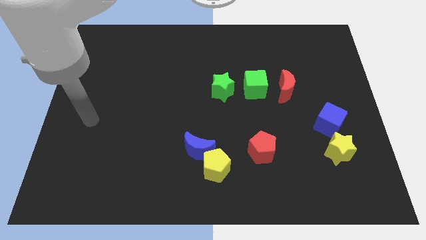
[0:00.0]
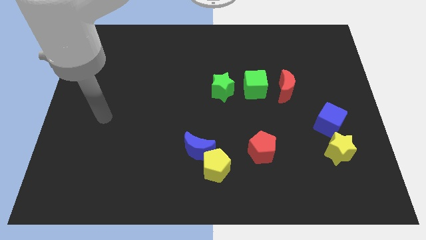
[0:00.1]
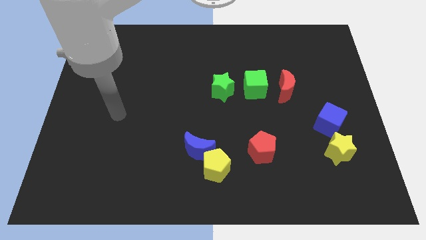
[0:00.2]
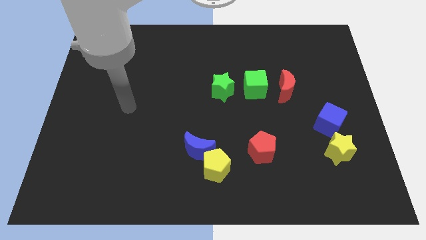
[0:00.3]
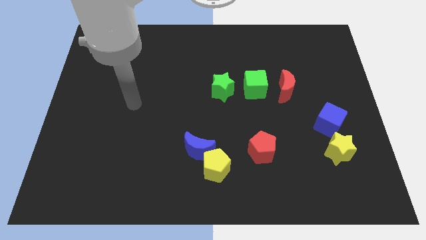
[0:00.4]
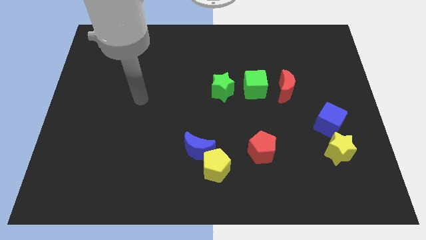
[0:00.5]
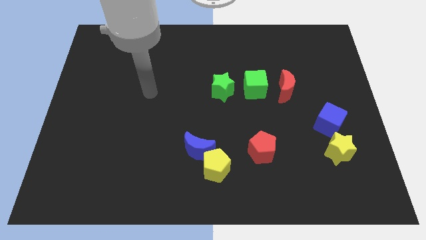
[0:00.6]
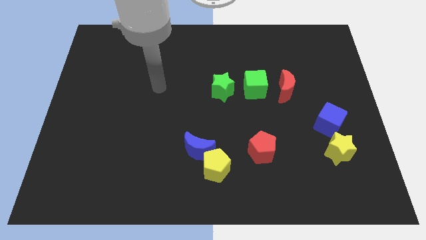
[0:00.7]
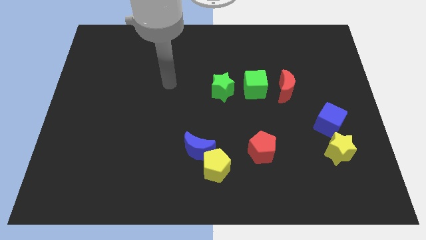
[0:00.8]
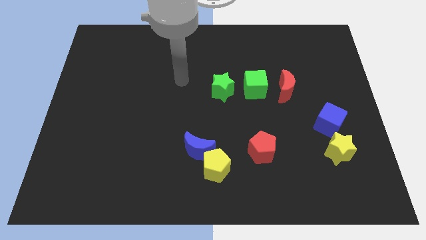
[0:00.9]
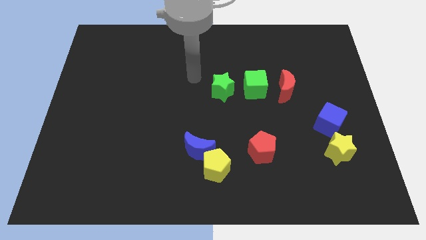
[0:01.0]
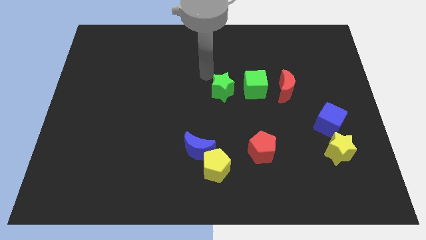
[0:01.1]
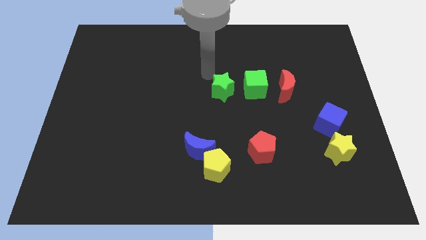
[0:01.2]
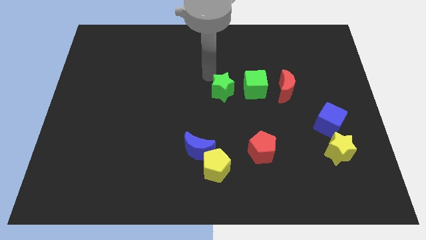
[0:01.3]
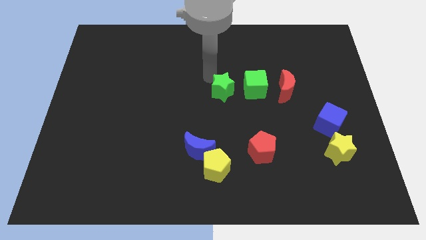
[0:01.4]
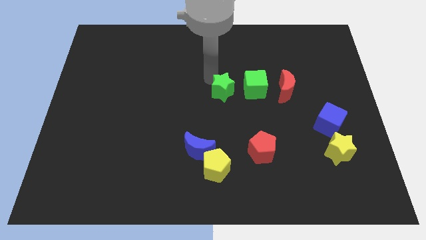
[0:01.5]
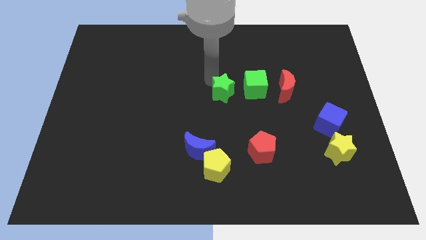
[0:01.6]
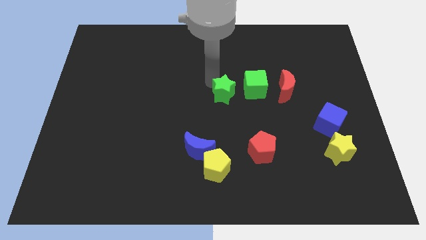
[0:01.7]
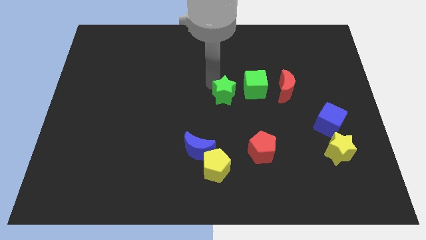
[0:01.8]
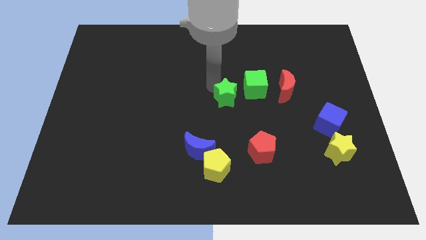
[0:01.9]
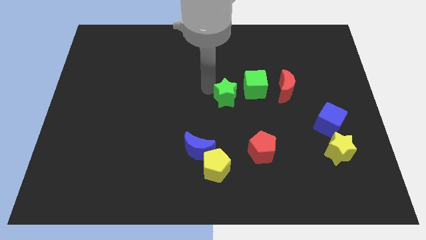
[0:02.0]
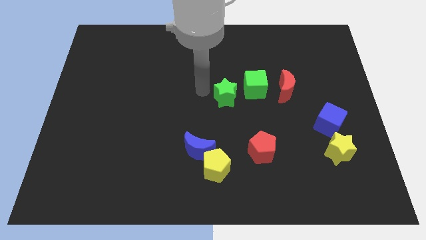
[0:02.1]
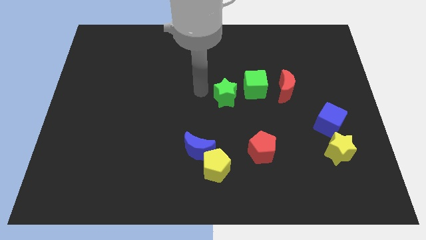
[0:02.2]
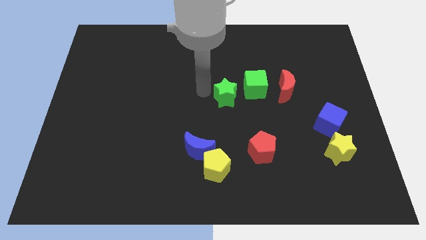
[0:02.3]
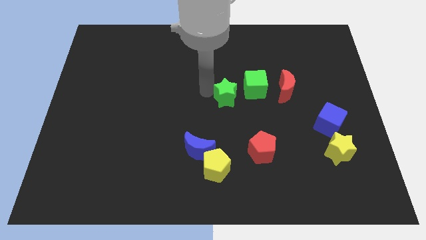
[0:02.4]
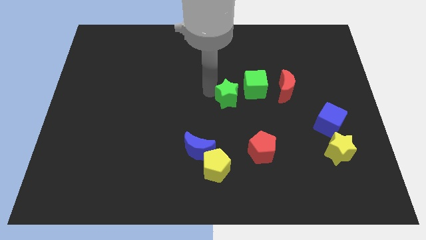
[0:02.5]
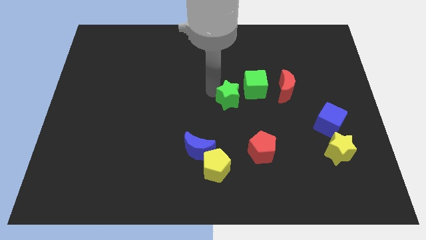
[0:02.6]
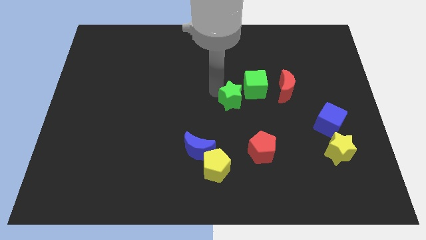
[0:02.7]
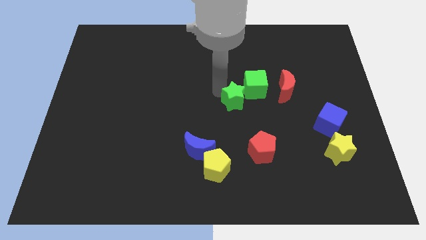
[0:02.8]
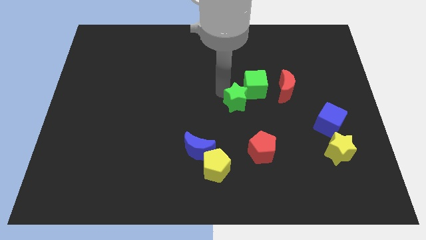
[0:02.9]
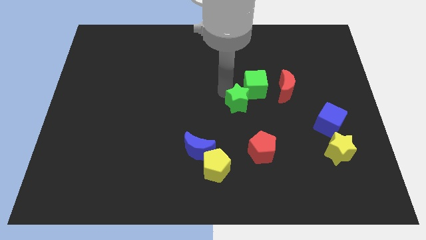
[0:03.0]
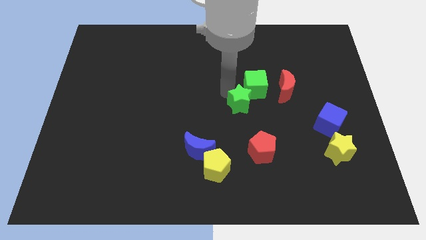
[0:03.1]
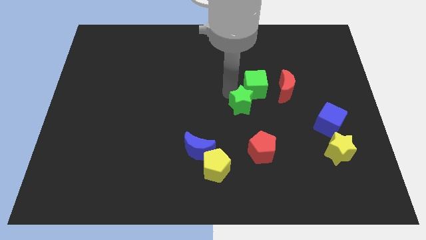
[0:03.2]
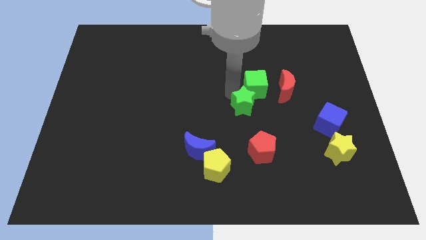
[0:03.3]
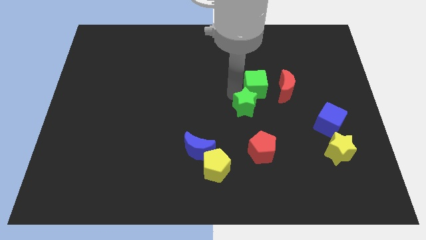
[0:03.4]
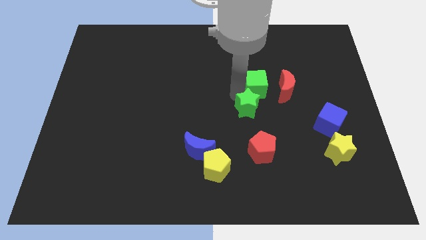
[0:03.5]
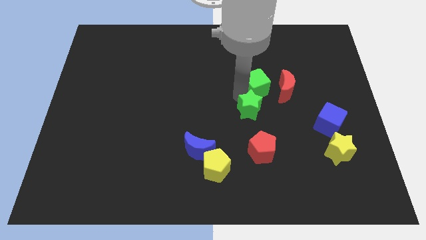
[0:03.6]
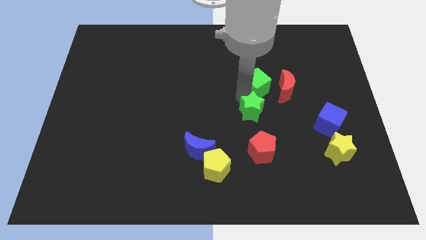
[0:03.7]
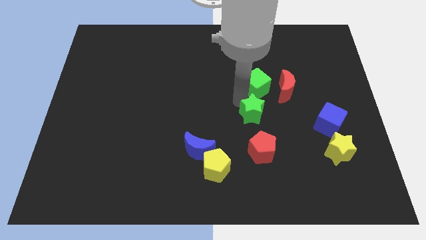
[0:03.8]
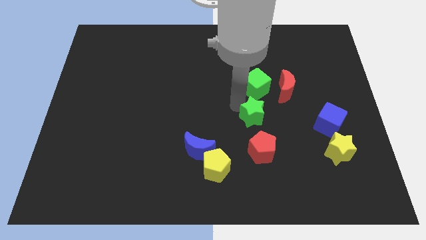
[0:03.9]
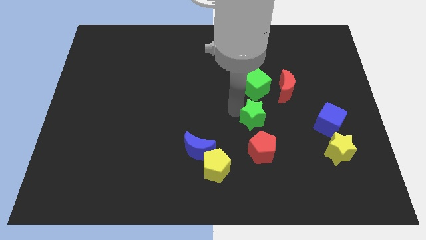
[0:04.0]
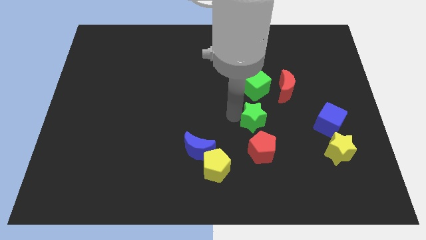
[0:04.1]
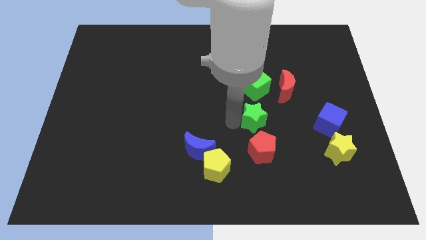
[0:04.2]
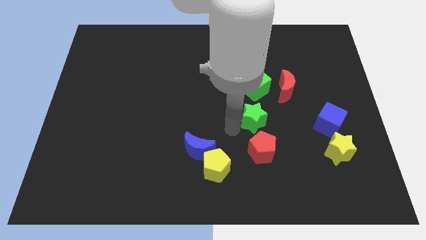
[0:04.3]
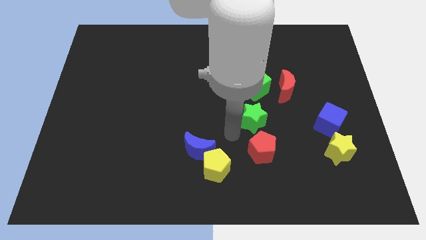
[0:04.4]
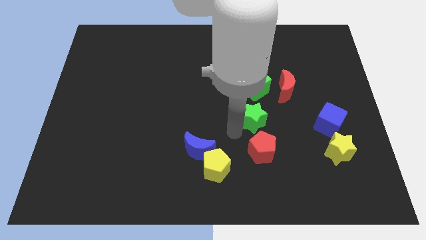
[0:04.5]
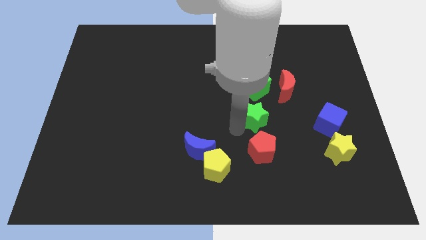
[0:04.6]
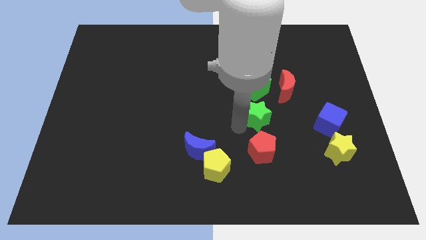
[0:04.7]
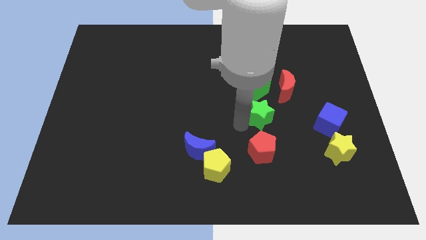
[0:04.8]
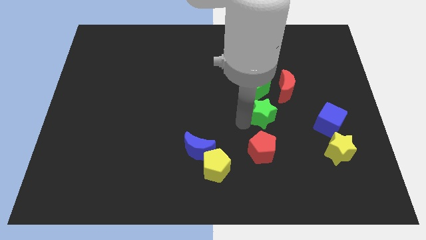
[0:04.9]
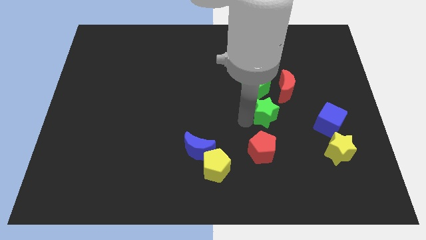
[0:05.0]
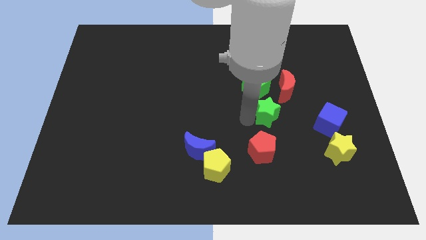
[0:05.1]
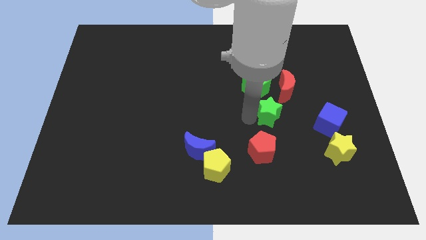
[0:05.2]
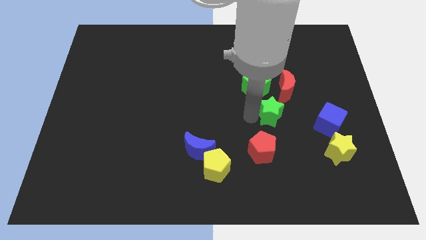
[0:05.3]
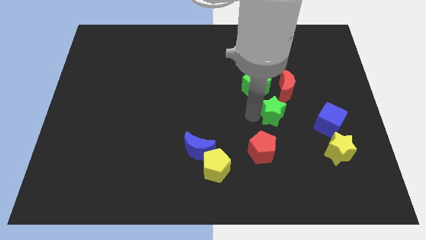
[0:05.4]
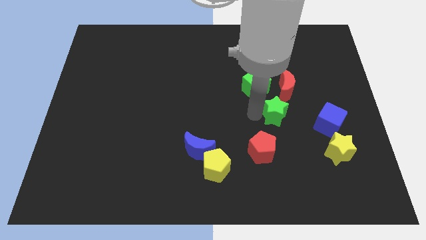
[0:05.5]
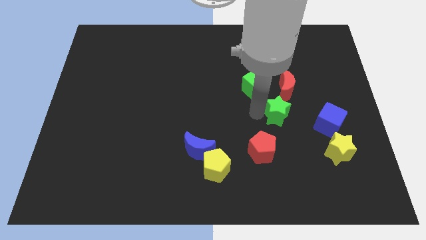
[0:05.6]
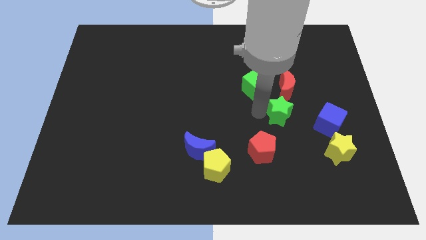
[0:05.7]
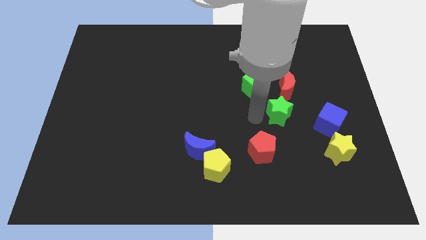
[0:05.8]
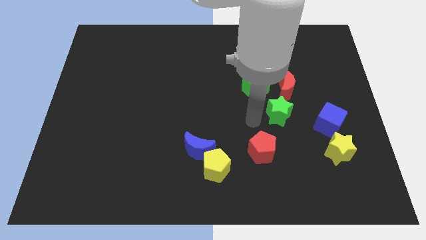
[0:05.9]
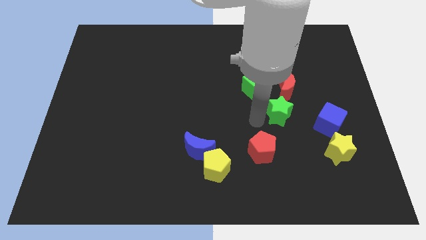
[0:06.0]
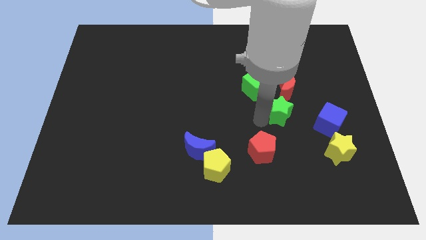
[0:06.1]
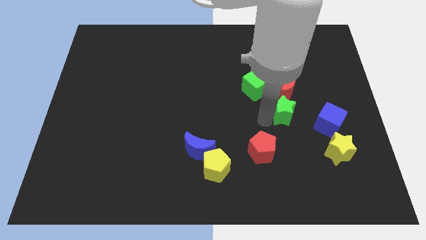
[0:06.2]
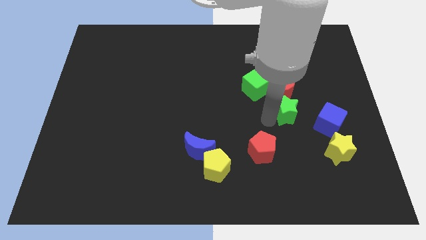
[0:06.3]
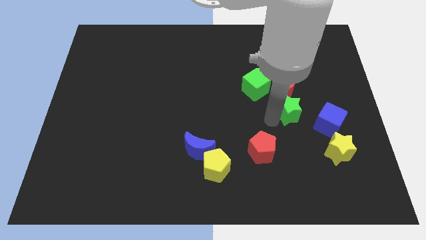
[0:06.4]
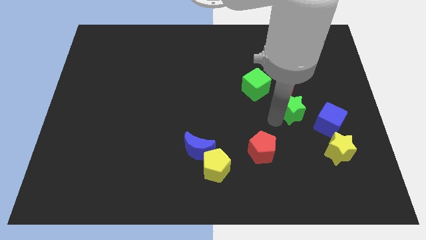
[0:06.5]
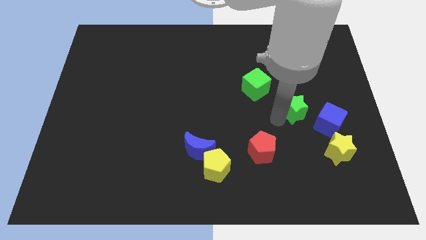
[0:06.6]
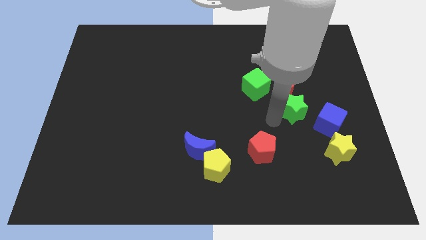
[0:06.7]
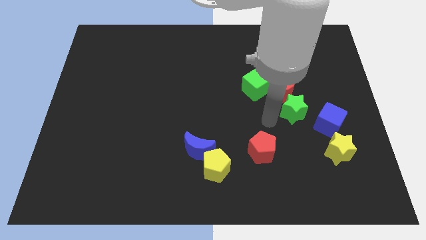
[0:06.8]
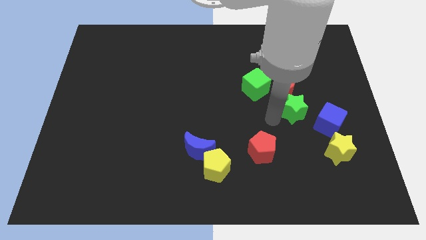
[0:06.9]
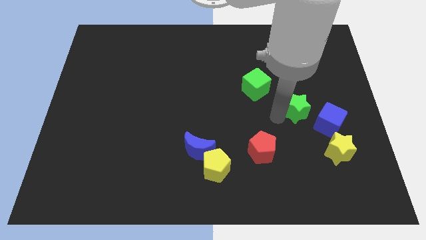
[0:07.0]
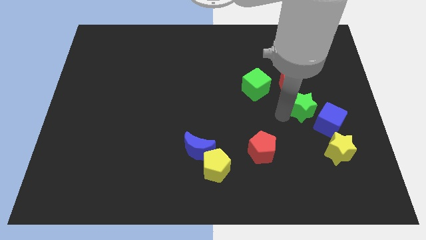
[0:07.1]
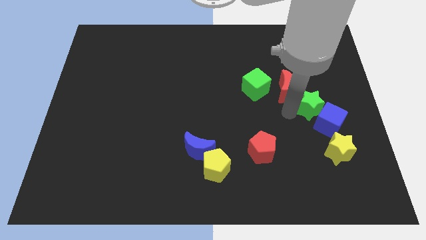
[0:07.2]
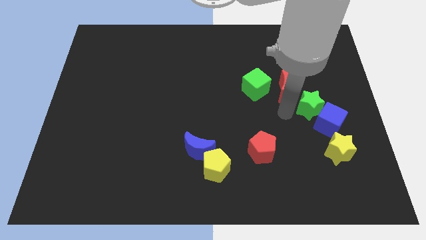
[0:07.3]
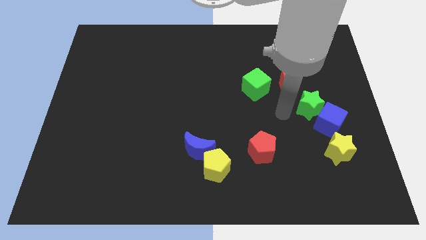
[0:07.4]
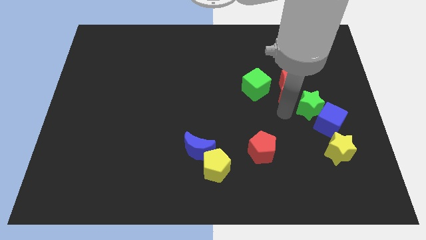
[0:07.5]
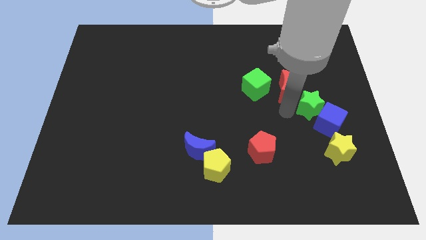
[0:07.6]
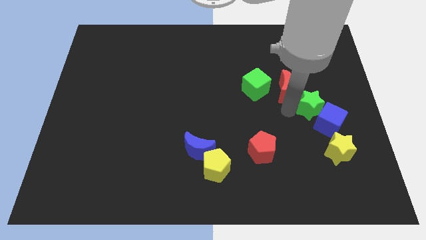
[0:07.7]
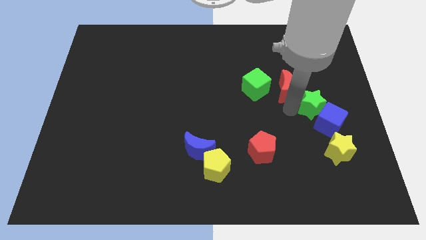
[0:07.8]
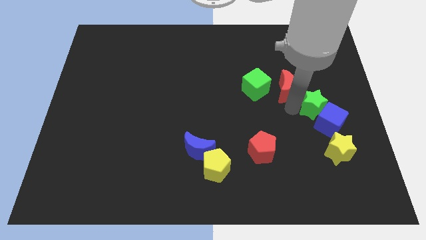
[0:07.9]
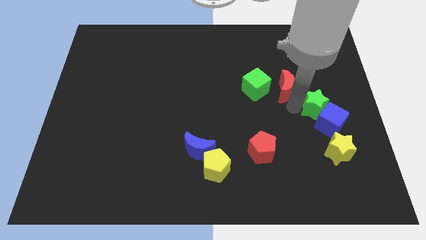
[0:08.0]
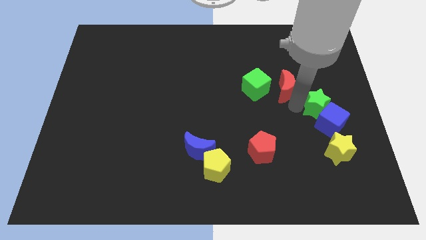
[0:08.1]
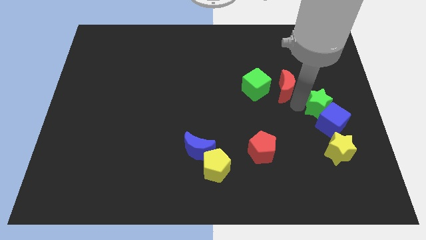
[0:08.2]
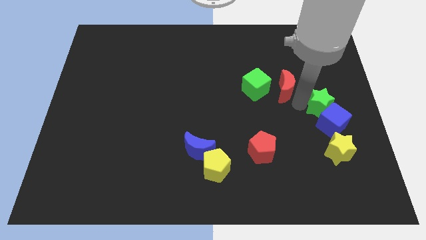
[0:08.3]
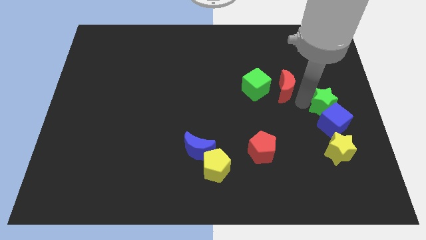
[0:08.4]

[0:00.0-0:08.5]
move the green star to the center right
